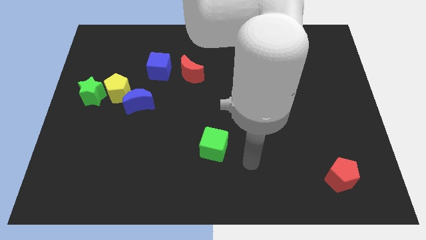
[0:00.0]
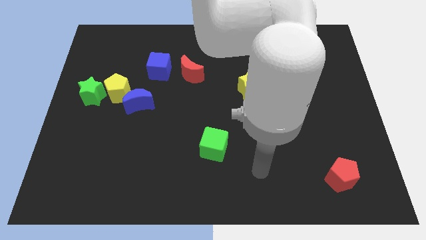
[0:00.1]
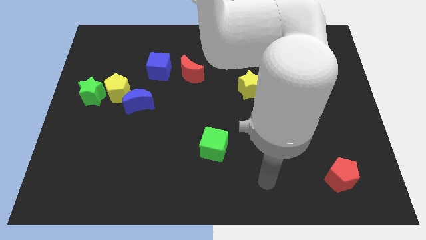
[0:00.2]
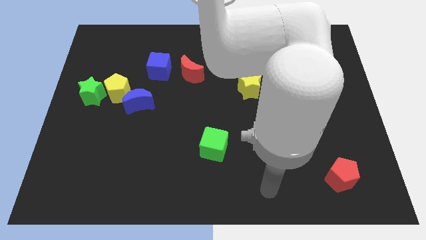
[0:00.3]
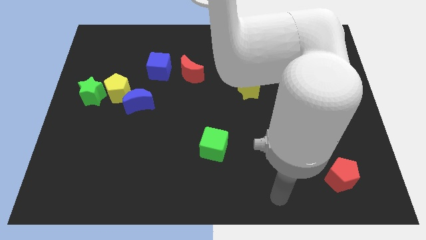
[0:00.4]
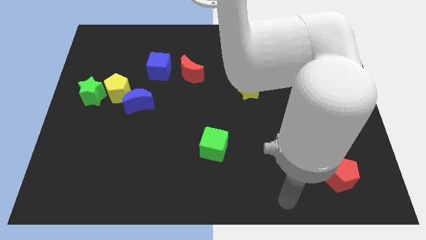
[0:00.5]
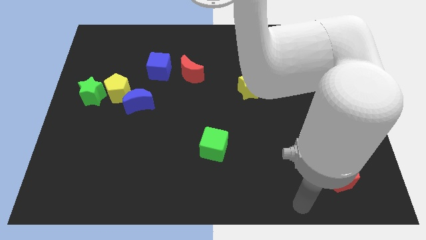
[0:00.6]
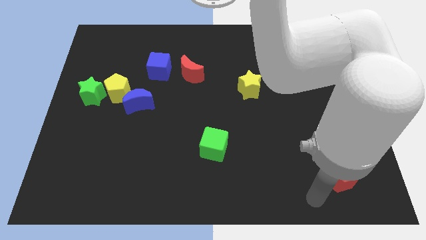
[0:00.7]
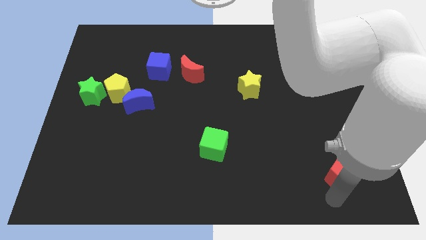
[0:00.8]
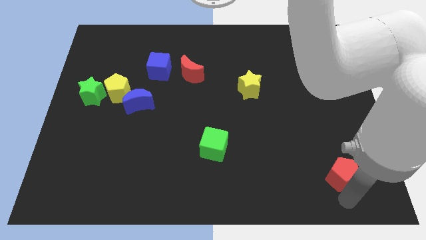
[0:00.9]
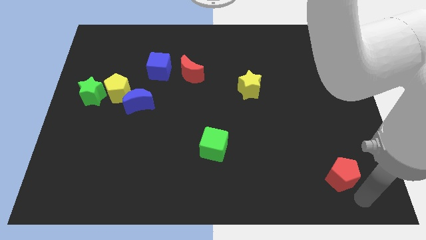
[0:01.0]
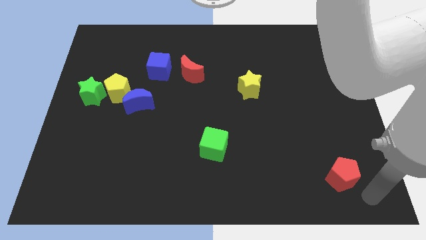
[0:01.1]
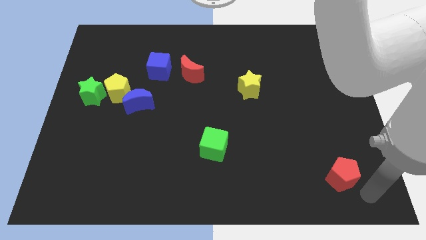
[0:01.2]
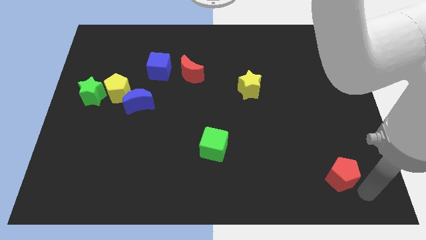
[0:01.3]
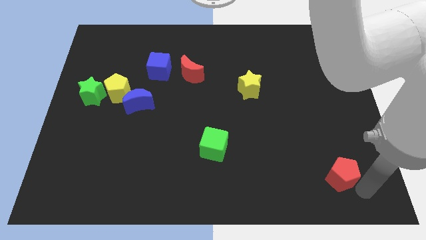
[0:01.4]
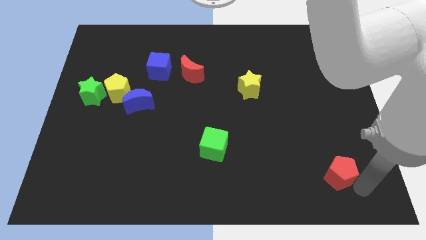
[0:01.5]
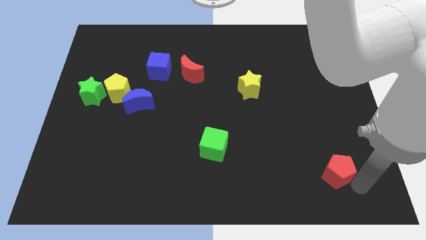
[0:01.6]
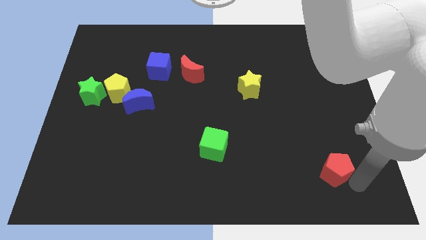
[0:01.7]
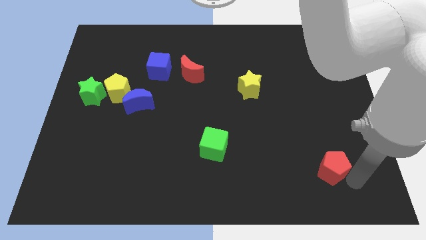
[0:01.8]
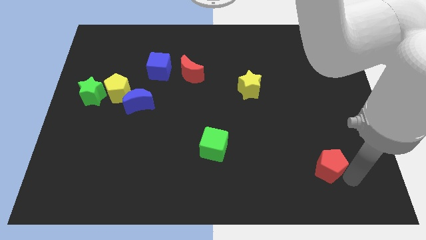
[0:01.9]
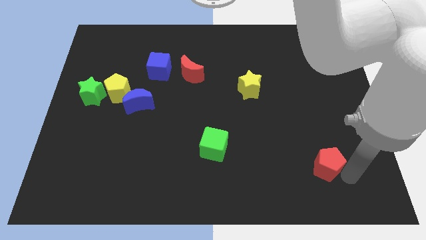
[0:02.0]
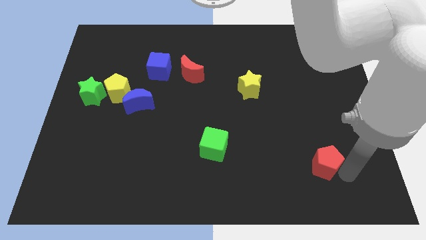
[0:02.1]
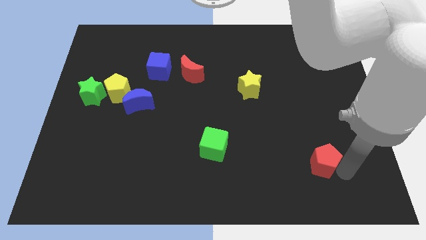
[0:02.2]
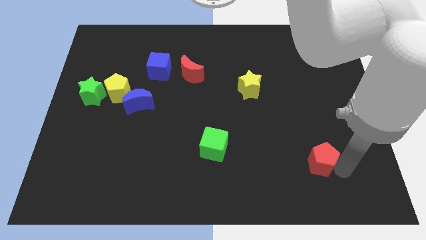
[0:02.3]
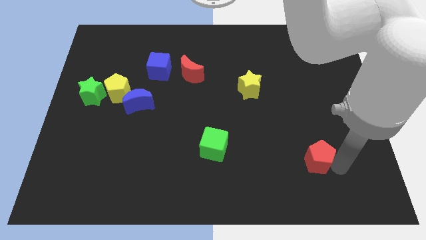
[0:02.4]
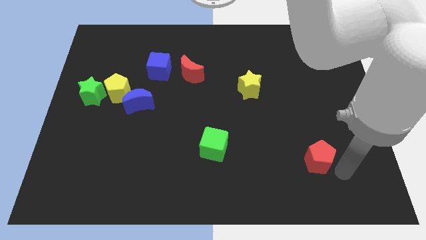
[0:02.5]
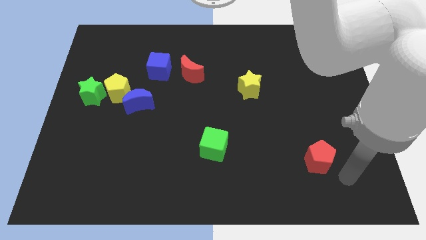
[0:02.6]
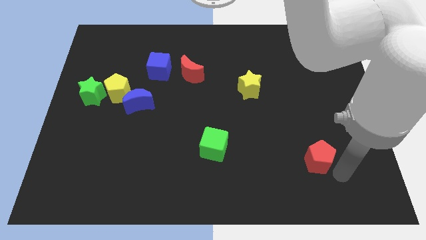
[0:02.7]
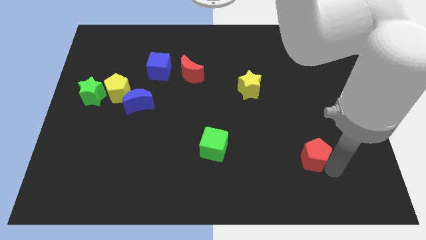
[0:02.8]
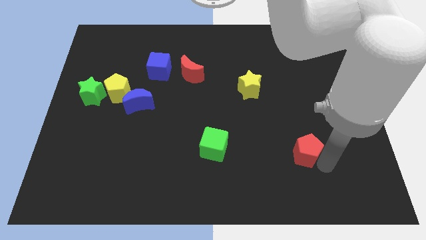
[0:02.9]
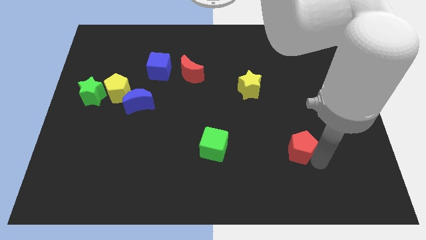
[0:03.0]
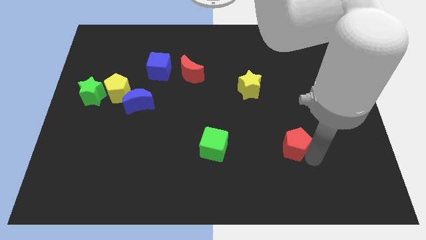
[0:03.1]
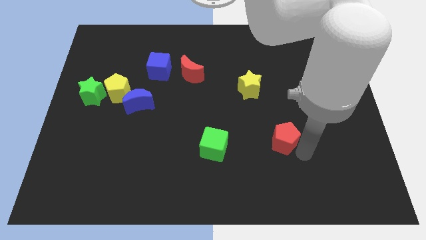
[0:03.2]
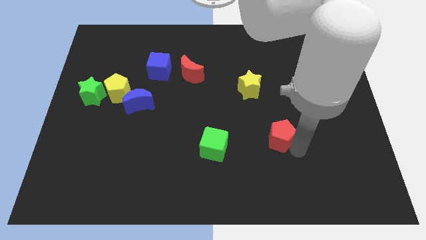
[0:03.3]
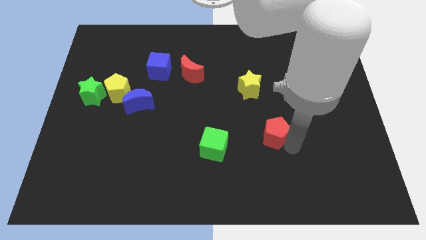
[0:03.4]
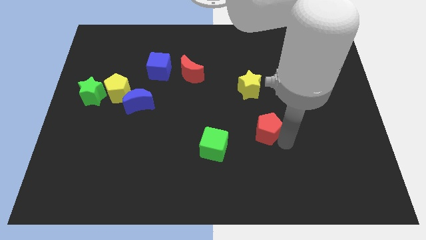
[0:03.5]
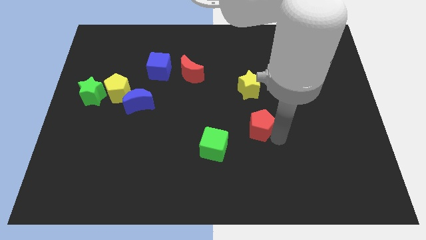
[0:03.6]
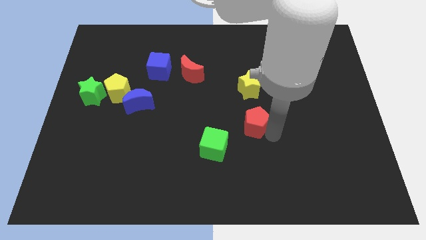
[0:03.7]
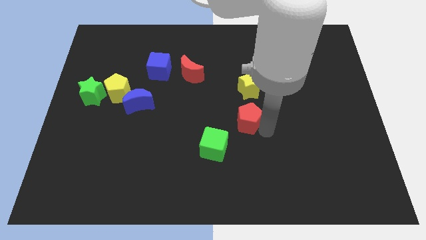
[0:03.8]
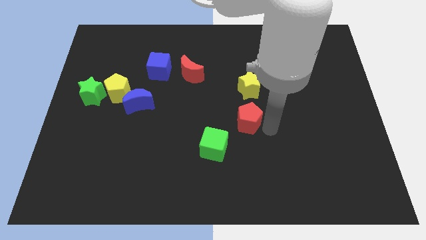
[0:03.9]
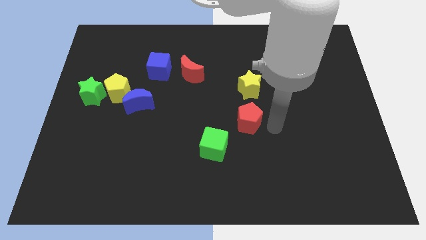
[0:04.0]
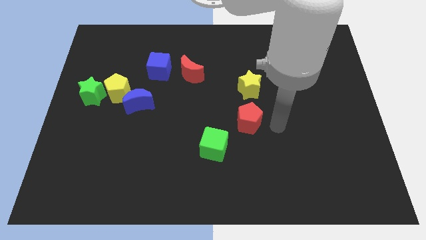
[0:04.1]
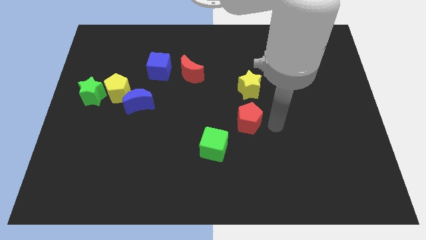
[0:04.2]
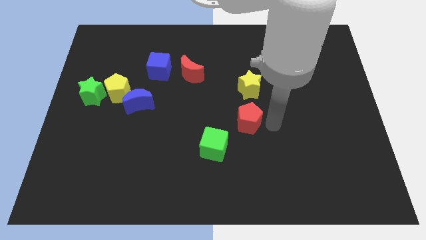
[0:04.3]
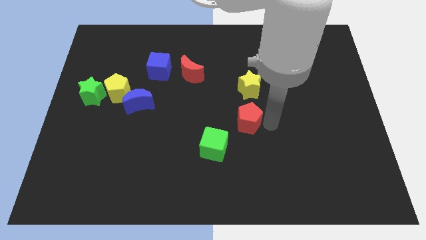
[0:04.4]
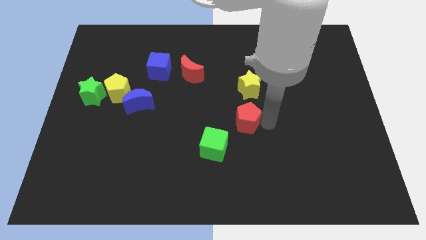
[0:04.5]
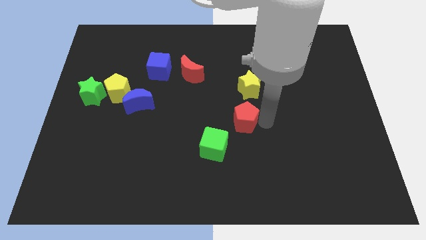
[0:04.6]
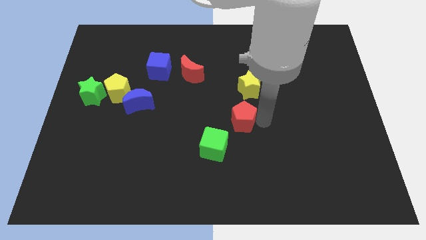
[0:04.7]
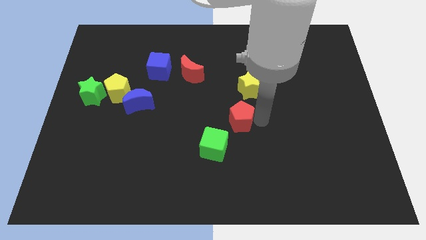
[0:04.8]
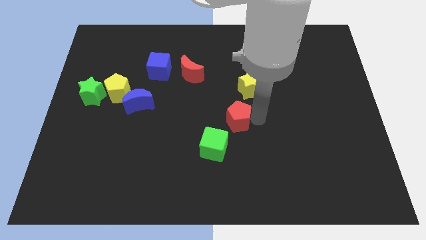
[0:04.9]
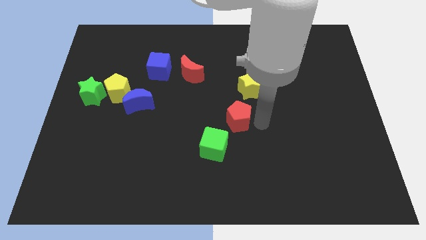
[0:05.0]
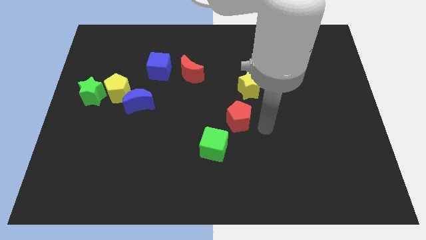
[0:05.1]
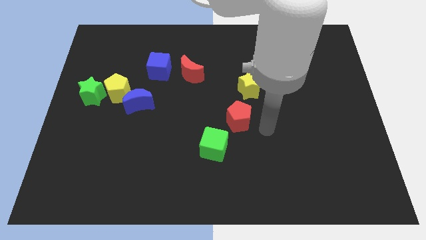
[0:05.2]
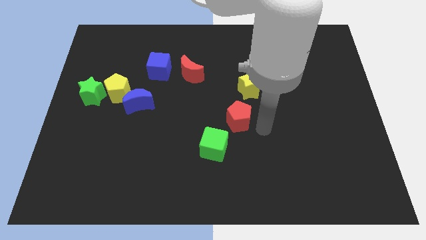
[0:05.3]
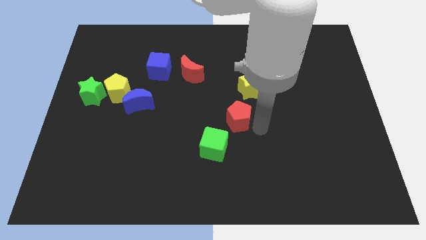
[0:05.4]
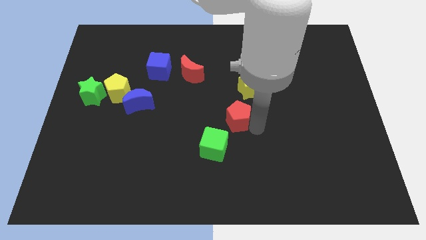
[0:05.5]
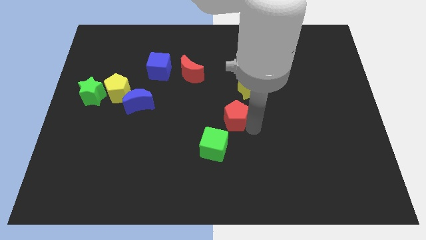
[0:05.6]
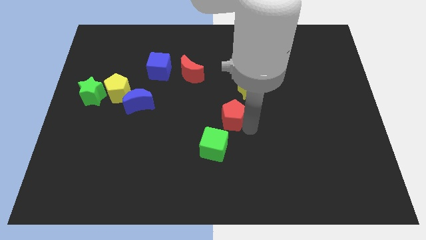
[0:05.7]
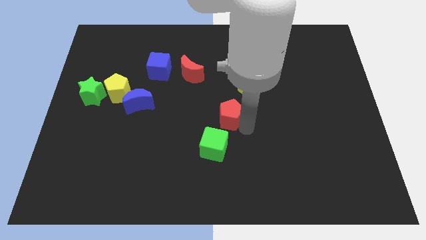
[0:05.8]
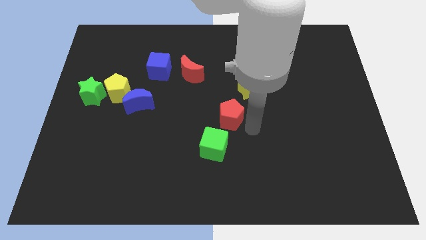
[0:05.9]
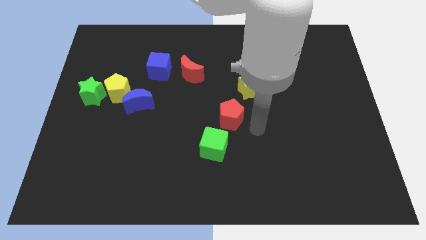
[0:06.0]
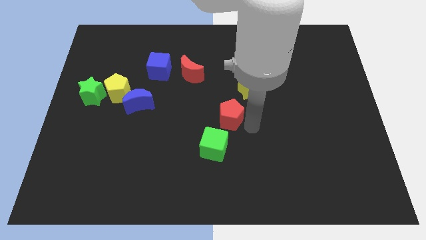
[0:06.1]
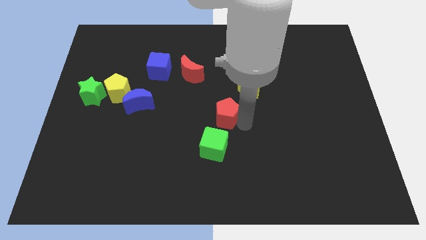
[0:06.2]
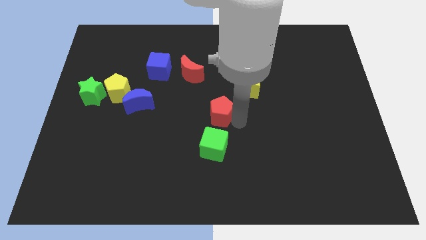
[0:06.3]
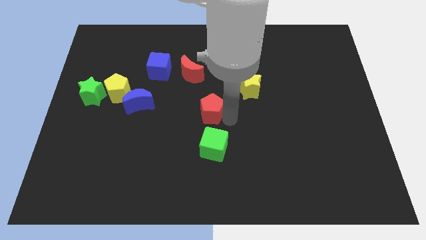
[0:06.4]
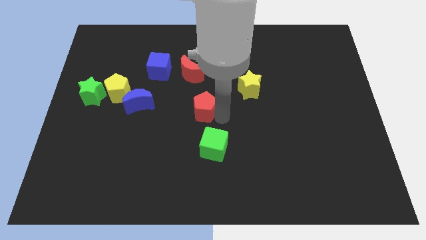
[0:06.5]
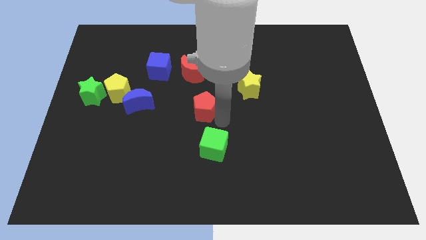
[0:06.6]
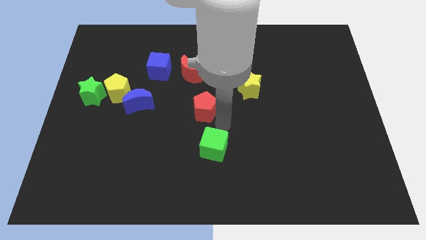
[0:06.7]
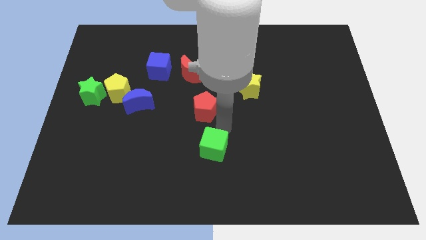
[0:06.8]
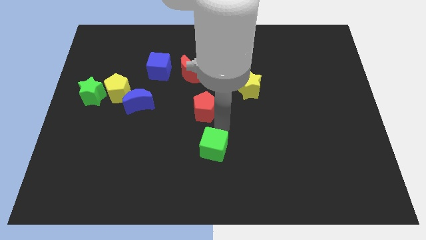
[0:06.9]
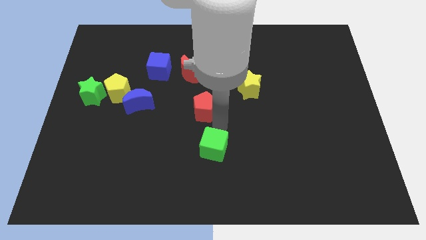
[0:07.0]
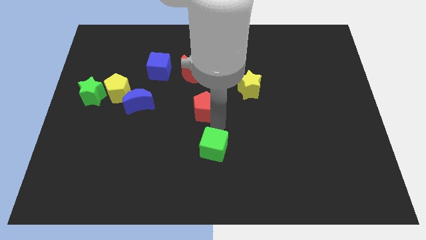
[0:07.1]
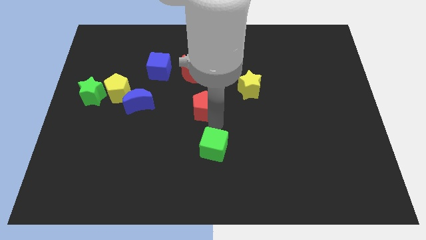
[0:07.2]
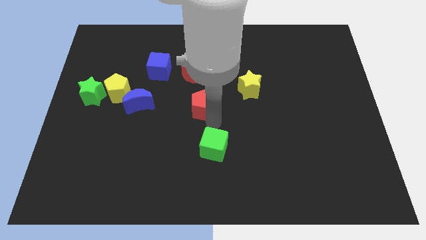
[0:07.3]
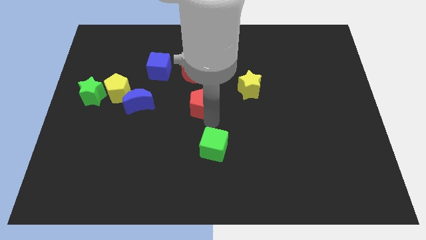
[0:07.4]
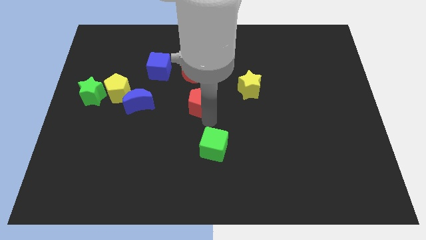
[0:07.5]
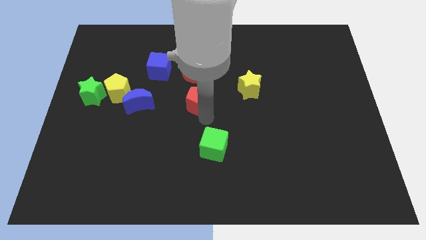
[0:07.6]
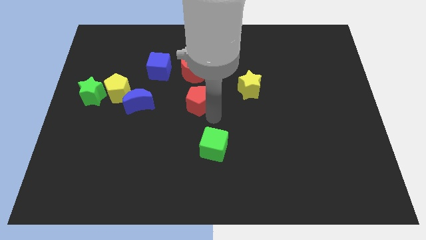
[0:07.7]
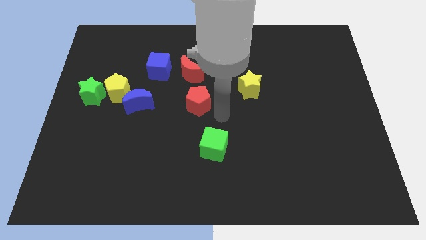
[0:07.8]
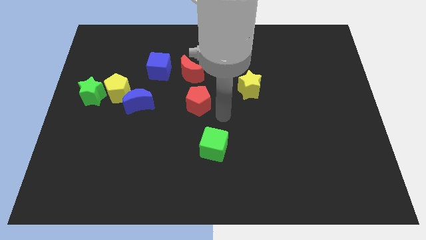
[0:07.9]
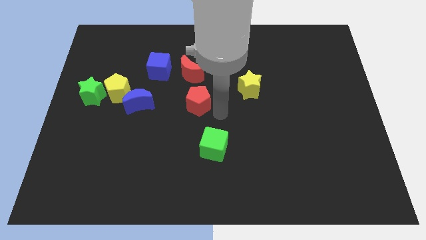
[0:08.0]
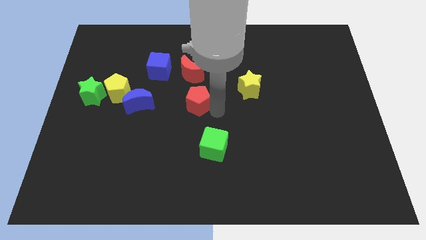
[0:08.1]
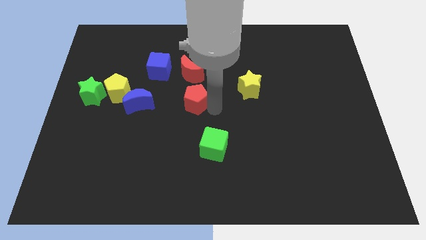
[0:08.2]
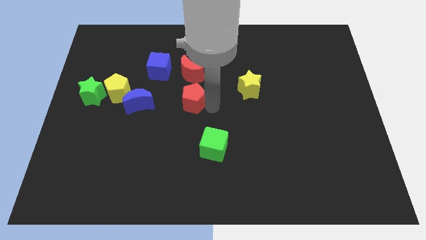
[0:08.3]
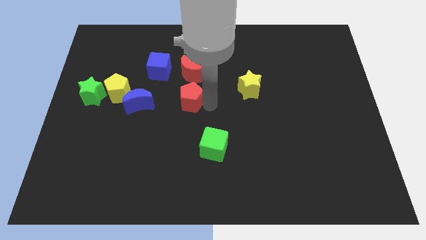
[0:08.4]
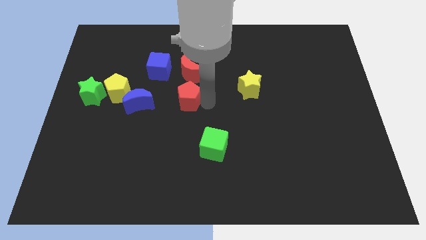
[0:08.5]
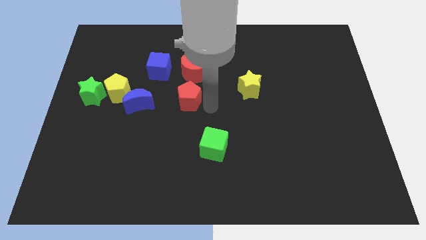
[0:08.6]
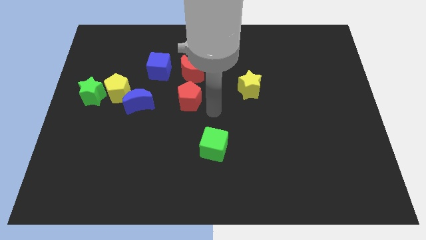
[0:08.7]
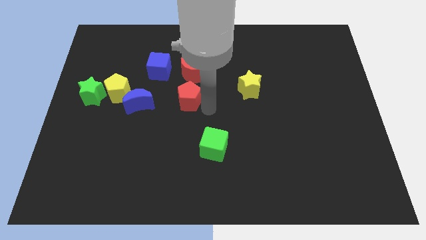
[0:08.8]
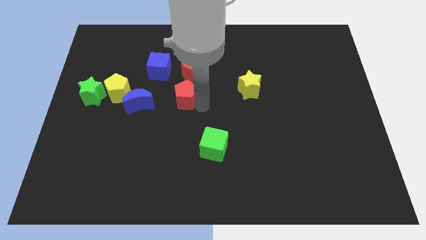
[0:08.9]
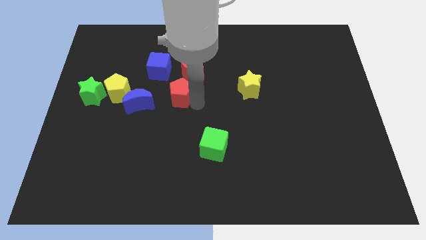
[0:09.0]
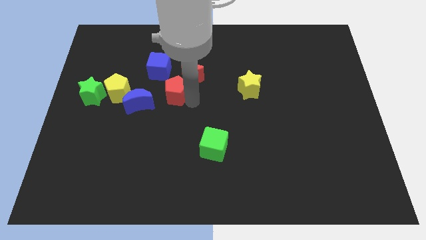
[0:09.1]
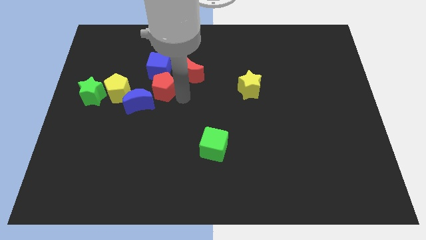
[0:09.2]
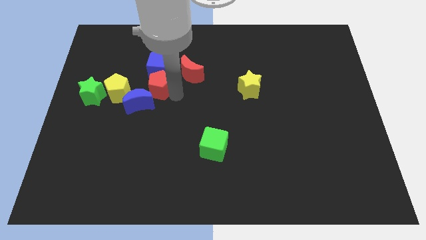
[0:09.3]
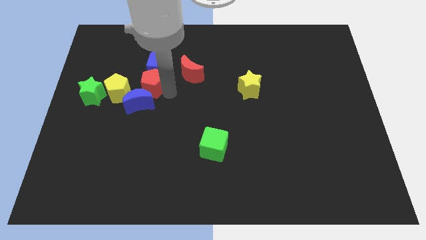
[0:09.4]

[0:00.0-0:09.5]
slide the red pentagon to the top right of the yellow pentagon
